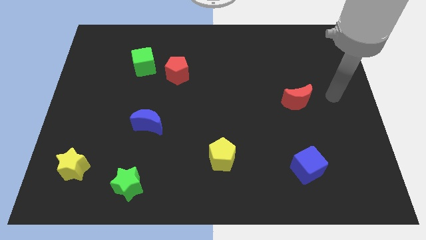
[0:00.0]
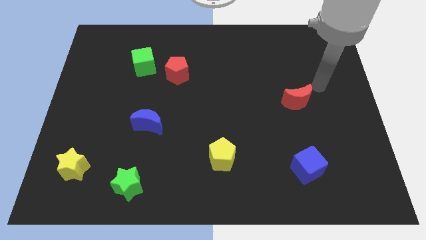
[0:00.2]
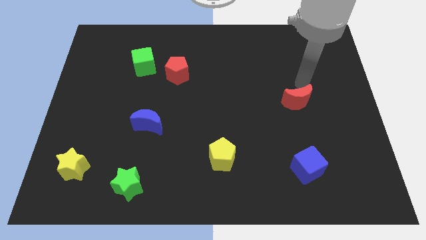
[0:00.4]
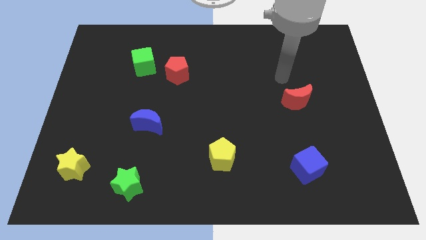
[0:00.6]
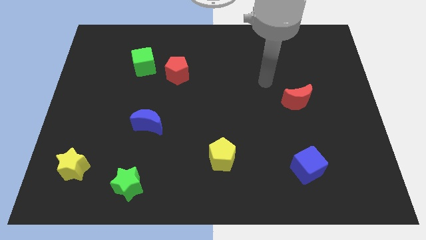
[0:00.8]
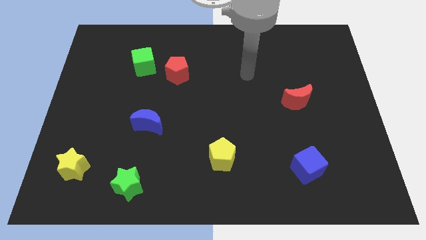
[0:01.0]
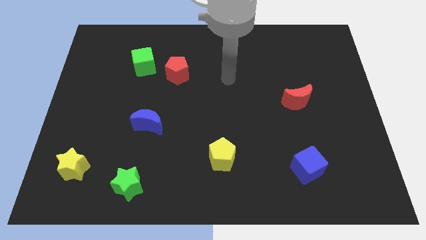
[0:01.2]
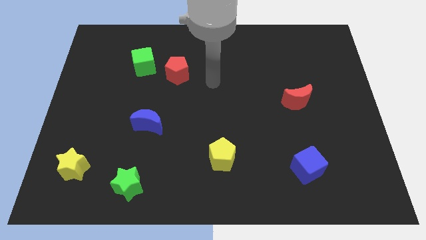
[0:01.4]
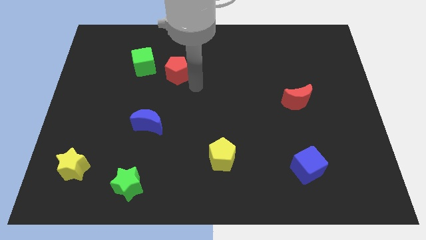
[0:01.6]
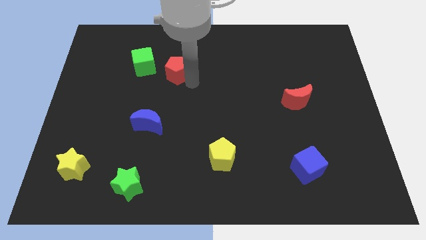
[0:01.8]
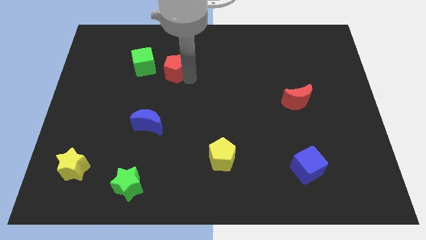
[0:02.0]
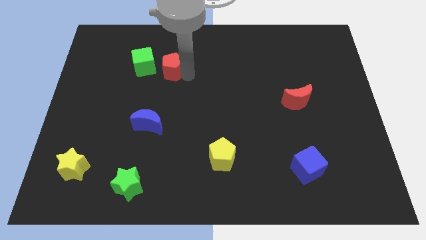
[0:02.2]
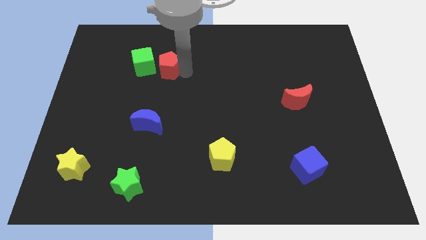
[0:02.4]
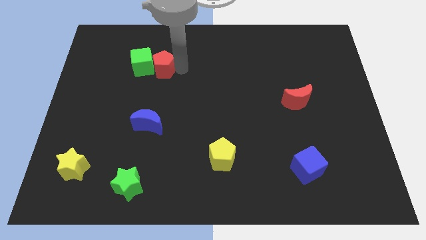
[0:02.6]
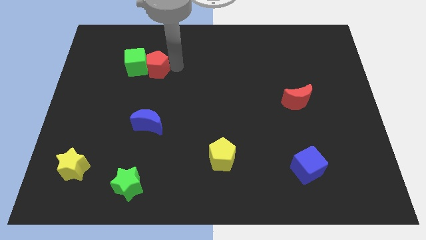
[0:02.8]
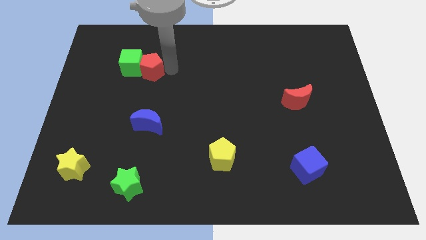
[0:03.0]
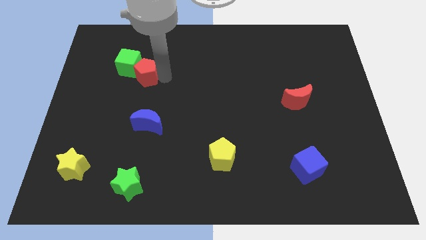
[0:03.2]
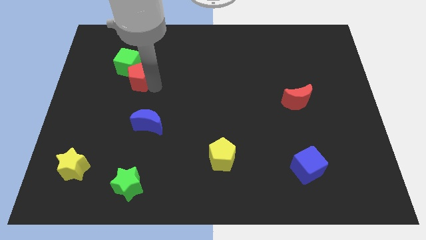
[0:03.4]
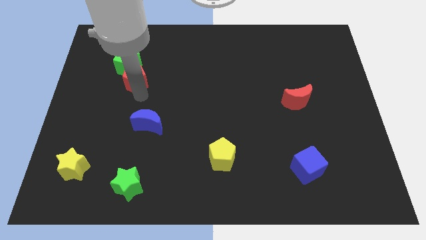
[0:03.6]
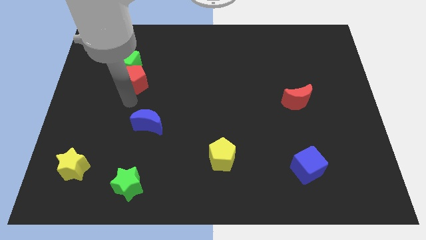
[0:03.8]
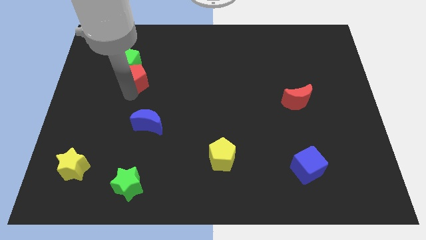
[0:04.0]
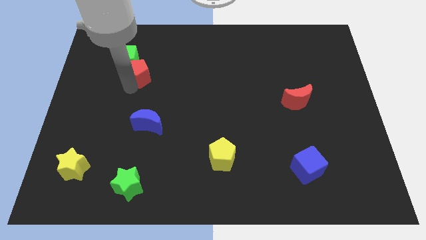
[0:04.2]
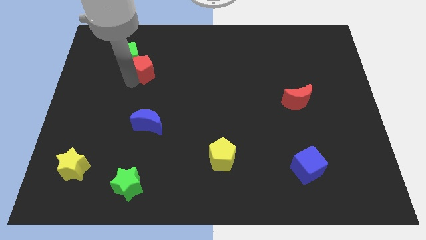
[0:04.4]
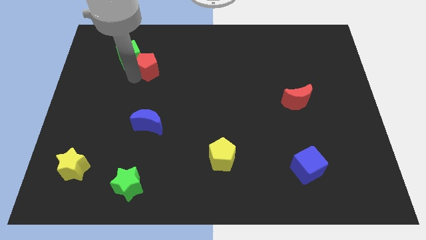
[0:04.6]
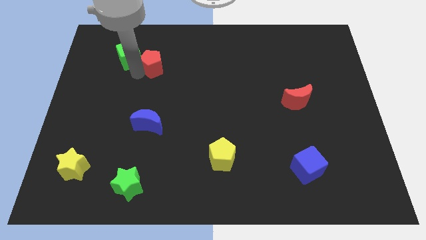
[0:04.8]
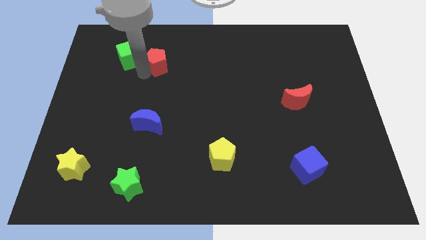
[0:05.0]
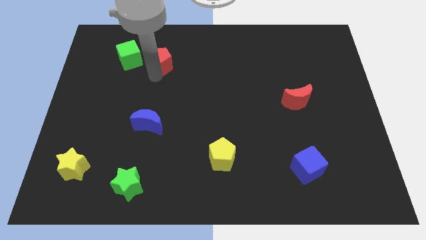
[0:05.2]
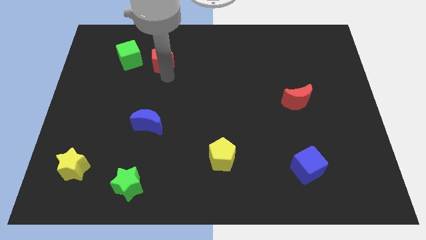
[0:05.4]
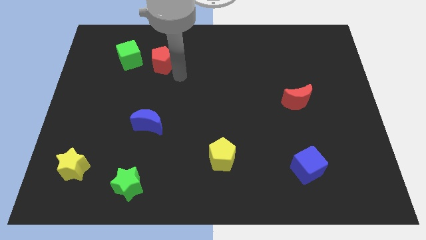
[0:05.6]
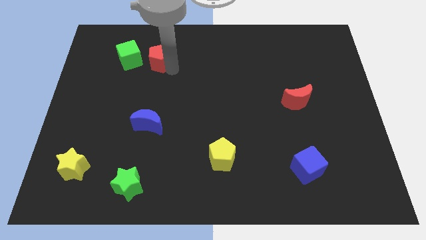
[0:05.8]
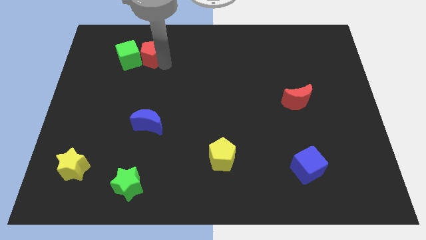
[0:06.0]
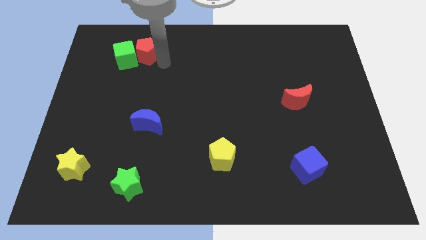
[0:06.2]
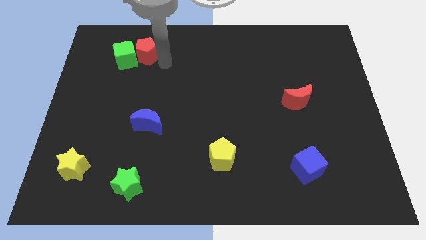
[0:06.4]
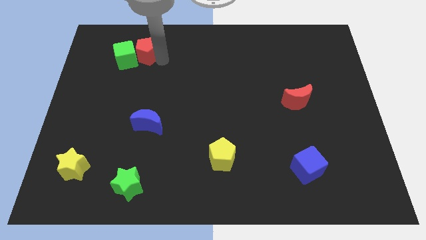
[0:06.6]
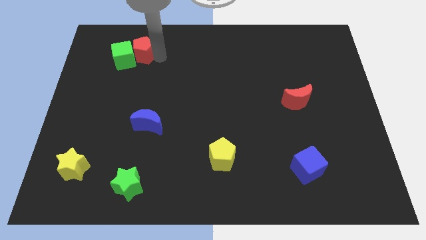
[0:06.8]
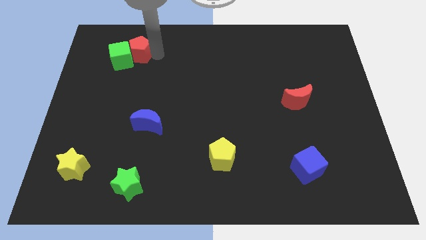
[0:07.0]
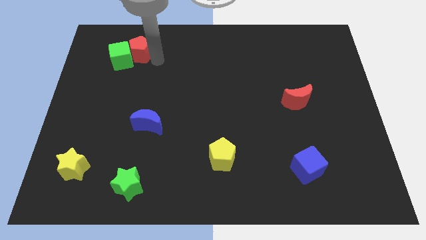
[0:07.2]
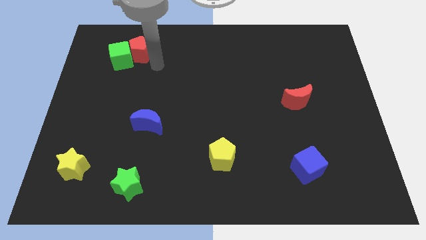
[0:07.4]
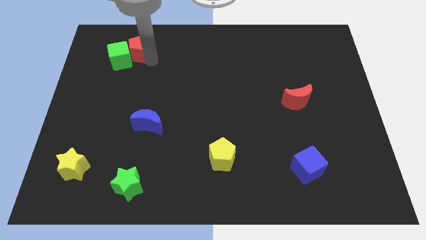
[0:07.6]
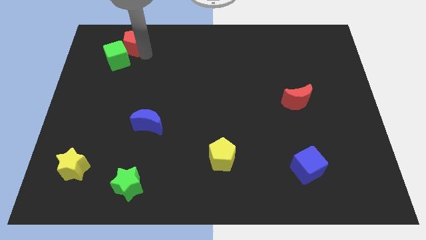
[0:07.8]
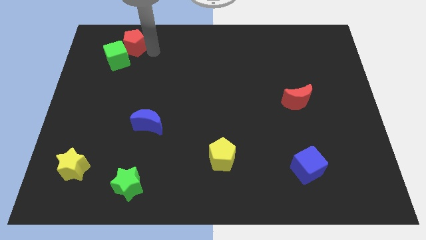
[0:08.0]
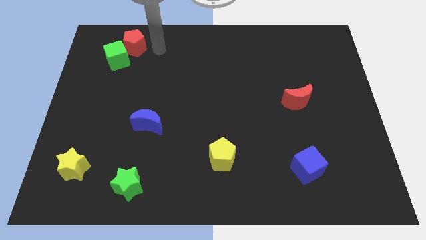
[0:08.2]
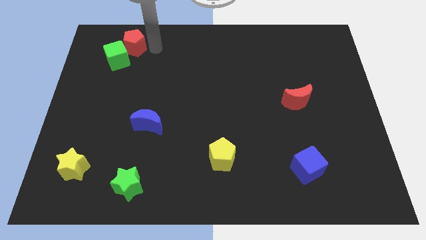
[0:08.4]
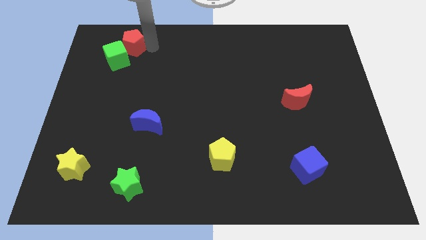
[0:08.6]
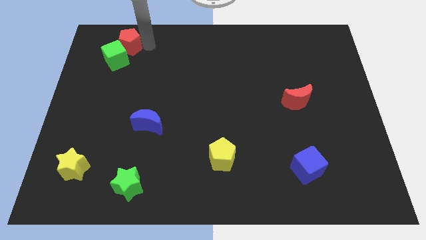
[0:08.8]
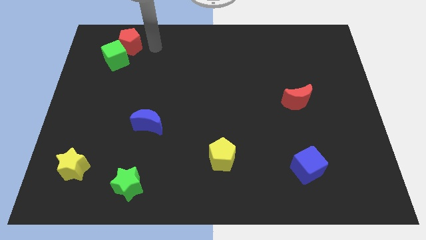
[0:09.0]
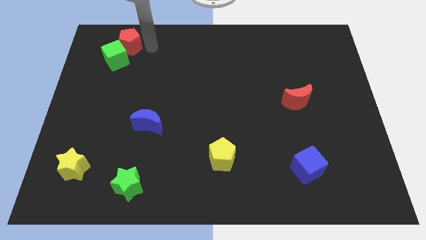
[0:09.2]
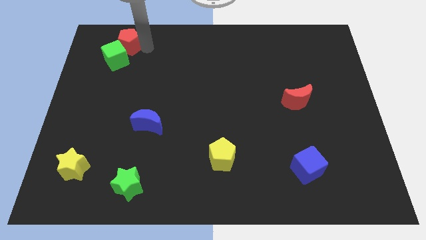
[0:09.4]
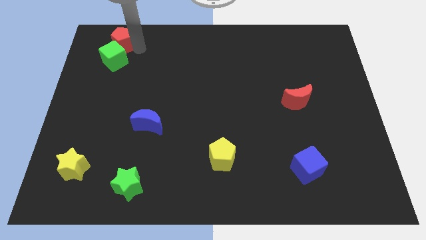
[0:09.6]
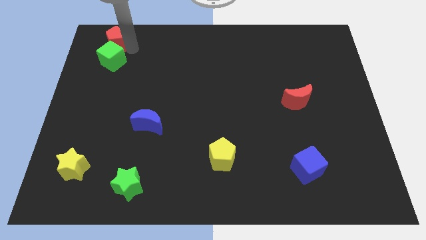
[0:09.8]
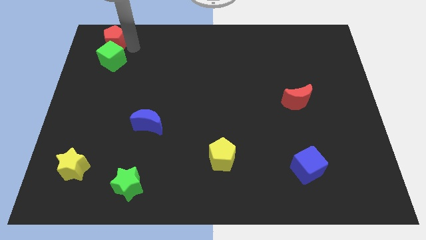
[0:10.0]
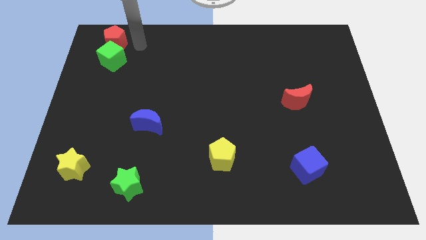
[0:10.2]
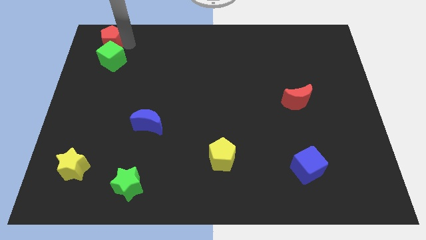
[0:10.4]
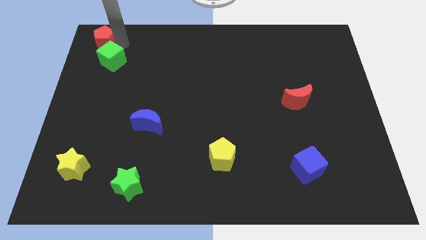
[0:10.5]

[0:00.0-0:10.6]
push the red pentagon to the top left corner

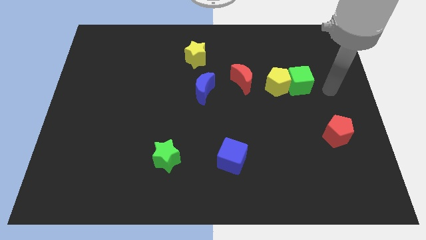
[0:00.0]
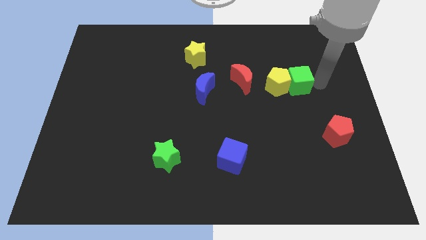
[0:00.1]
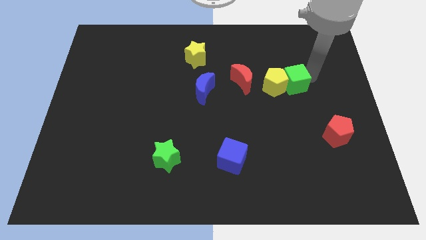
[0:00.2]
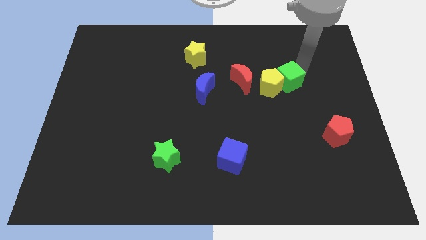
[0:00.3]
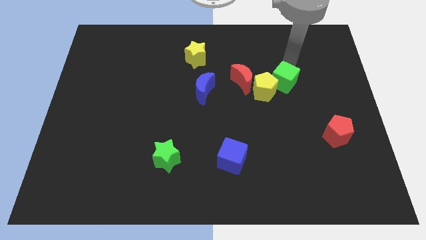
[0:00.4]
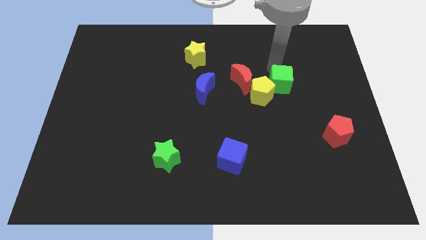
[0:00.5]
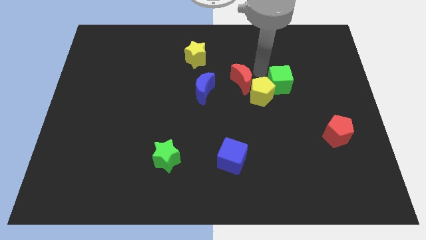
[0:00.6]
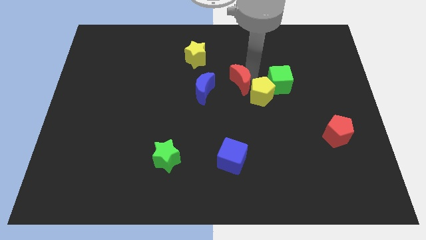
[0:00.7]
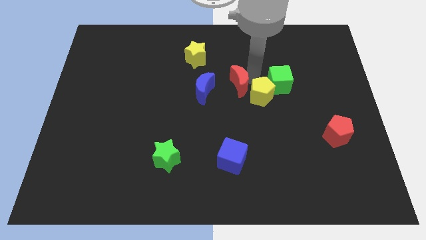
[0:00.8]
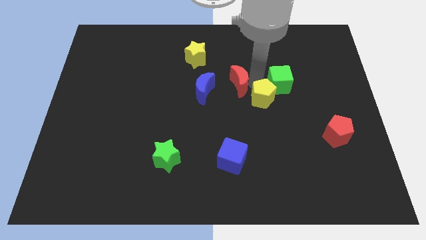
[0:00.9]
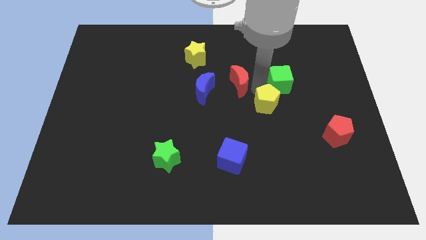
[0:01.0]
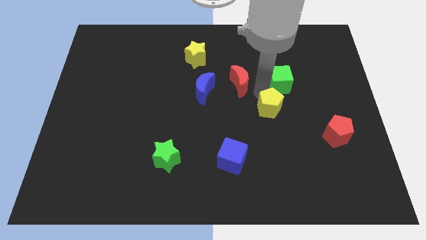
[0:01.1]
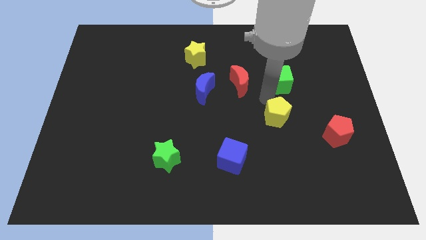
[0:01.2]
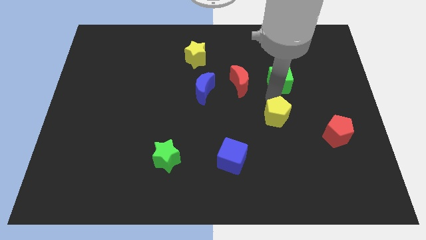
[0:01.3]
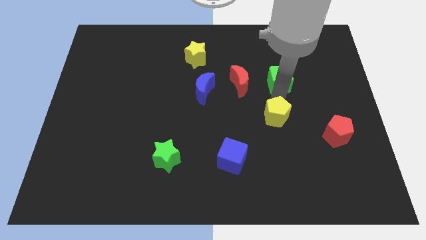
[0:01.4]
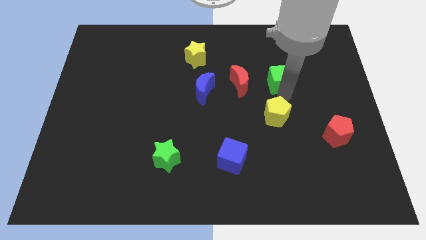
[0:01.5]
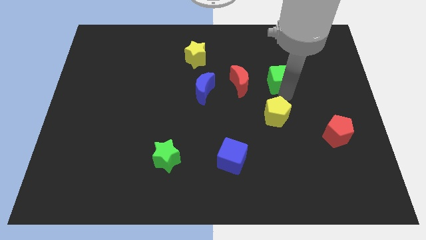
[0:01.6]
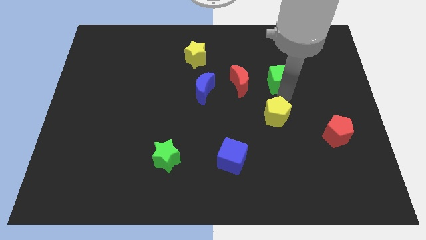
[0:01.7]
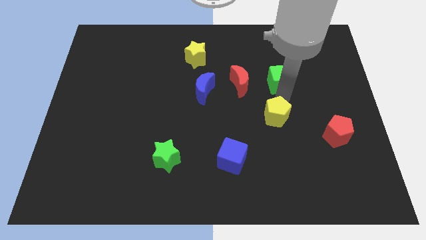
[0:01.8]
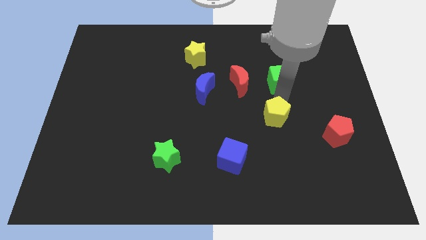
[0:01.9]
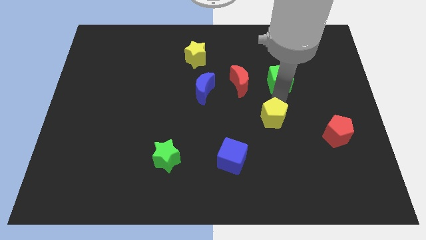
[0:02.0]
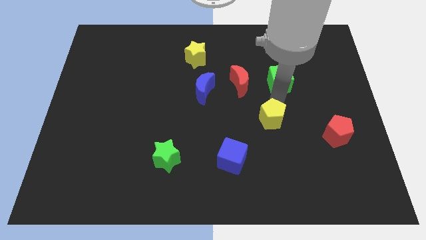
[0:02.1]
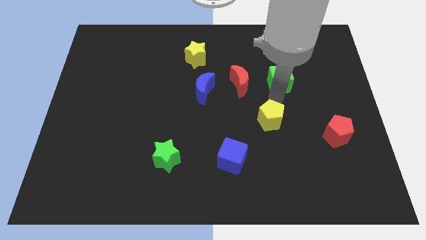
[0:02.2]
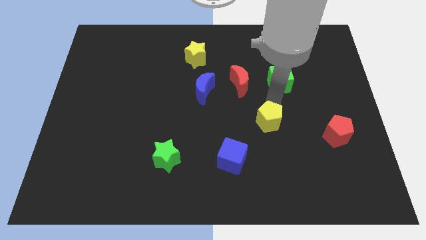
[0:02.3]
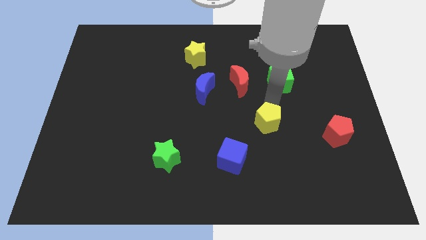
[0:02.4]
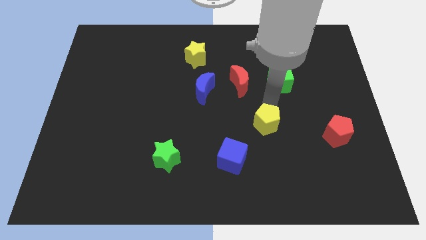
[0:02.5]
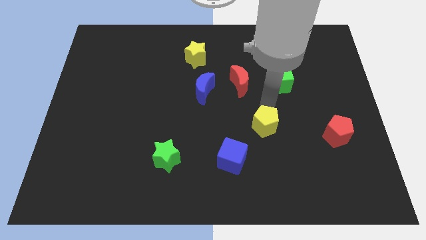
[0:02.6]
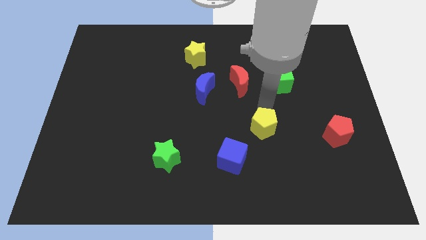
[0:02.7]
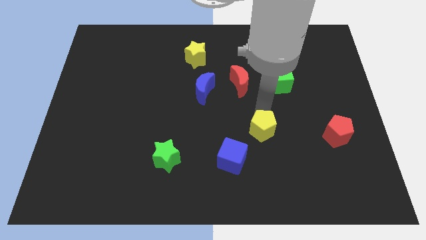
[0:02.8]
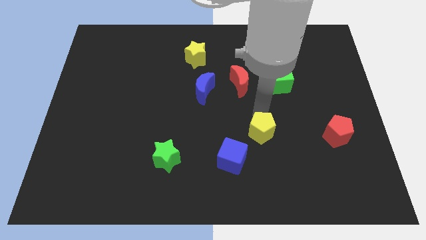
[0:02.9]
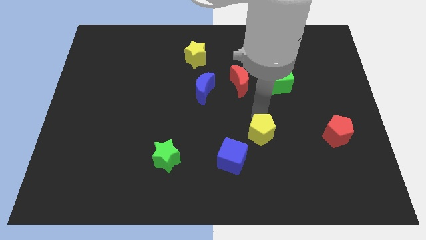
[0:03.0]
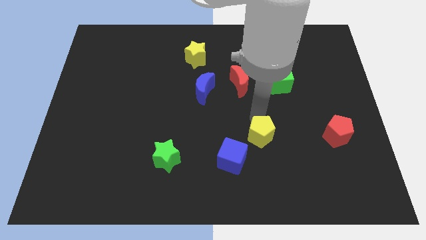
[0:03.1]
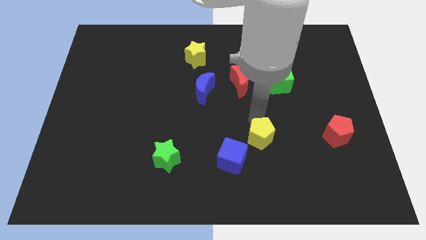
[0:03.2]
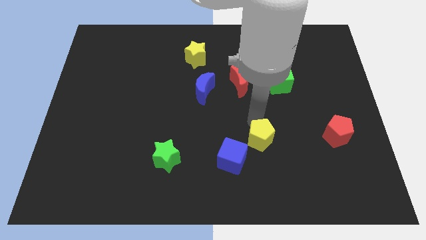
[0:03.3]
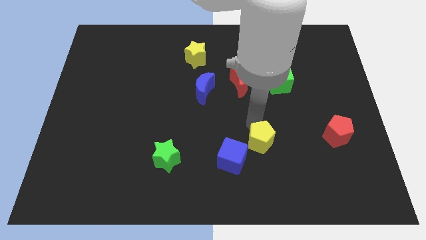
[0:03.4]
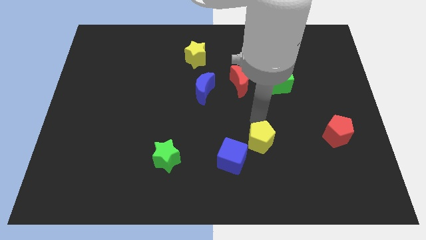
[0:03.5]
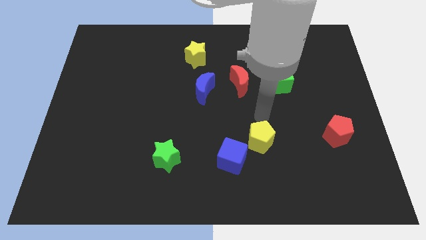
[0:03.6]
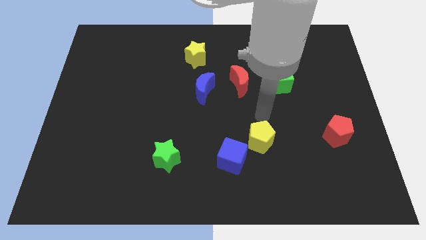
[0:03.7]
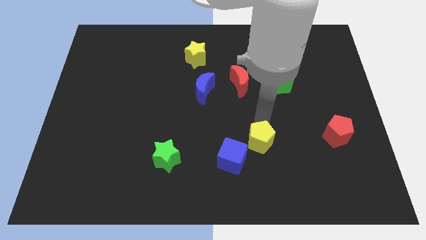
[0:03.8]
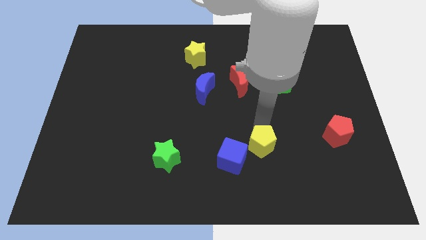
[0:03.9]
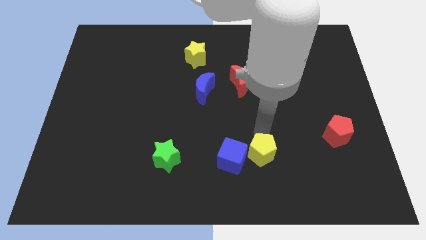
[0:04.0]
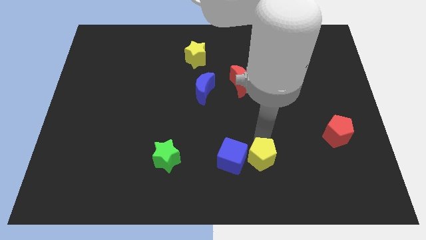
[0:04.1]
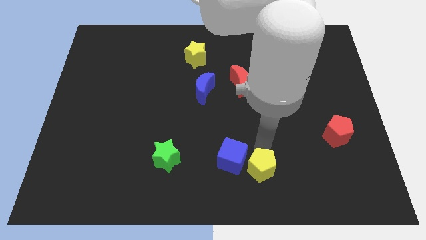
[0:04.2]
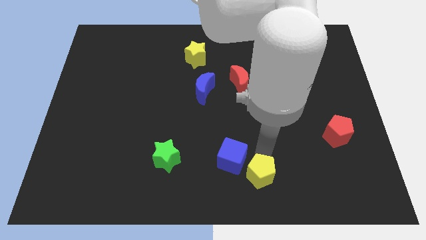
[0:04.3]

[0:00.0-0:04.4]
push the yellow pentagon to the bottom
